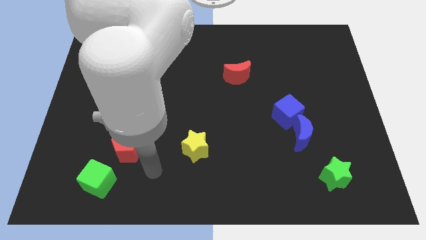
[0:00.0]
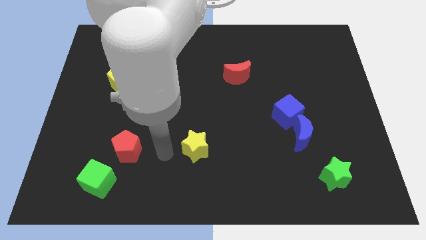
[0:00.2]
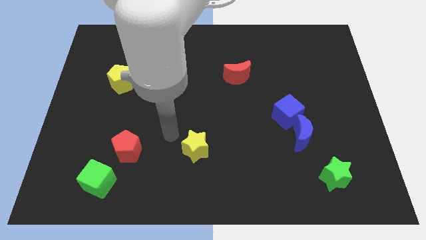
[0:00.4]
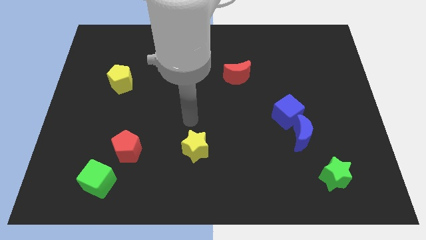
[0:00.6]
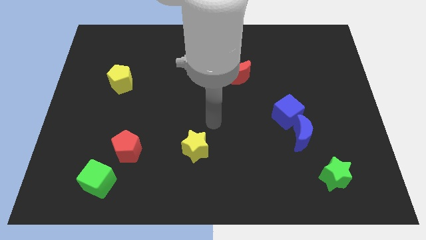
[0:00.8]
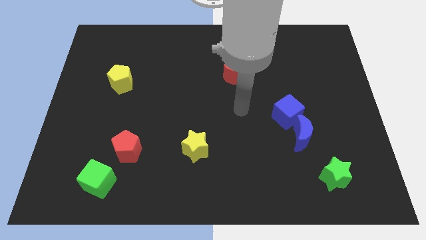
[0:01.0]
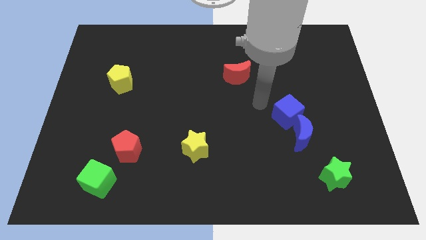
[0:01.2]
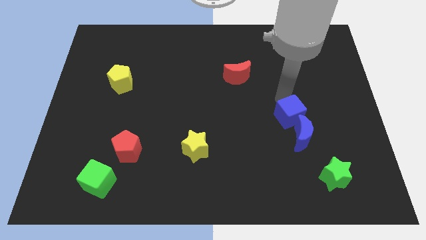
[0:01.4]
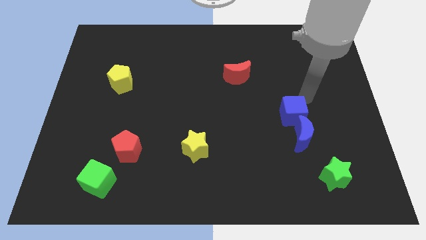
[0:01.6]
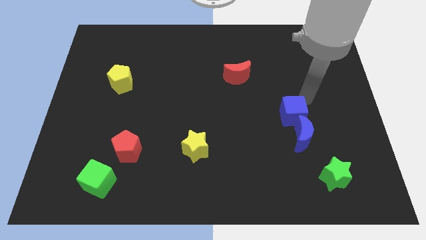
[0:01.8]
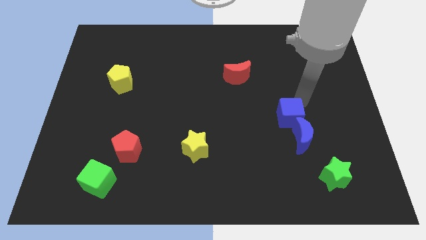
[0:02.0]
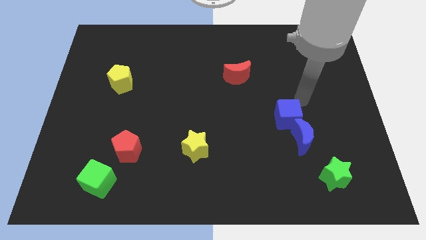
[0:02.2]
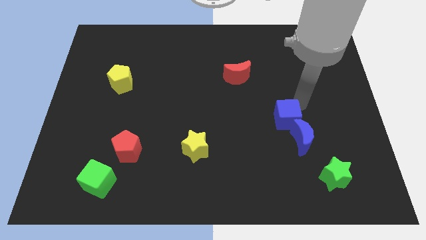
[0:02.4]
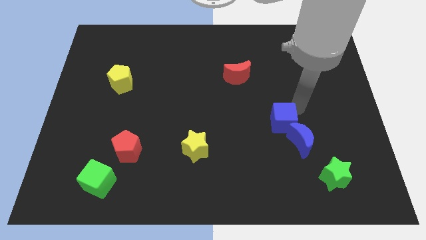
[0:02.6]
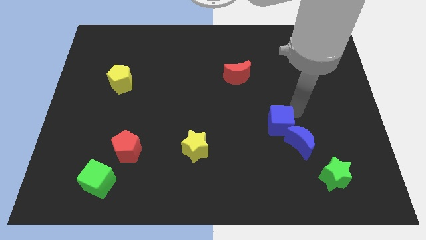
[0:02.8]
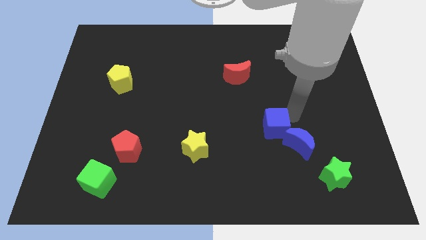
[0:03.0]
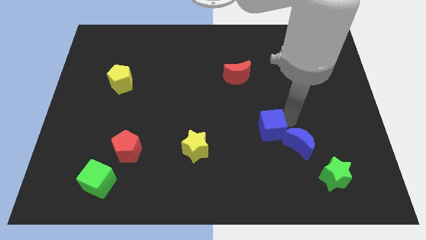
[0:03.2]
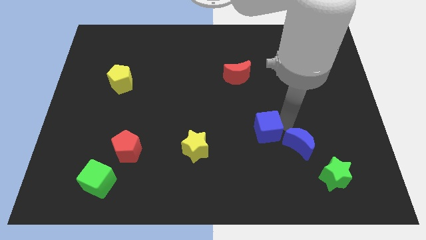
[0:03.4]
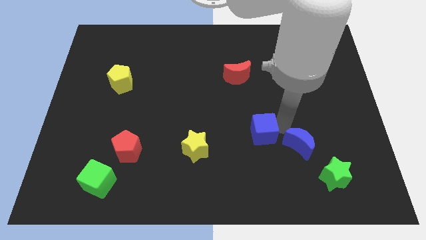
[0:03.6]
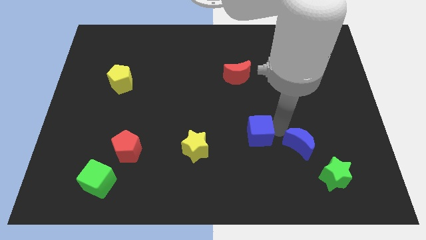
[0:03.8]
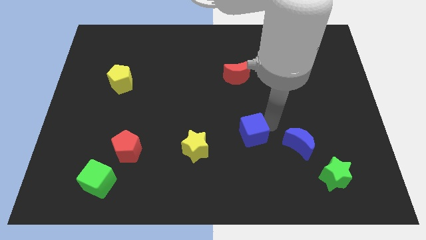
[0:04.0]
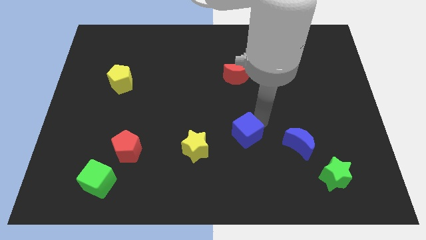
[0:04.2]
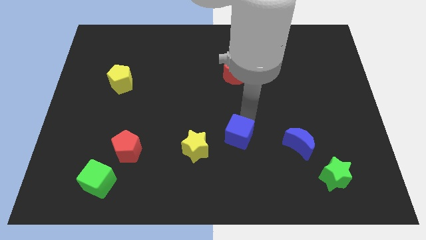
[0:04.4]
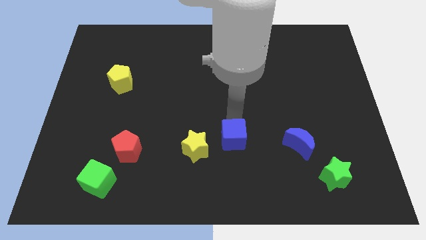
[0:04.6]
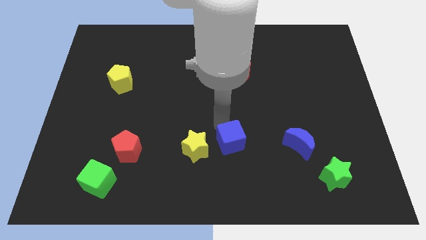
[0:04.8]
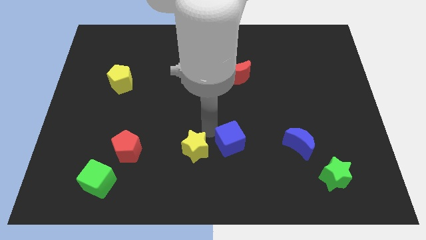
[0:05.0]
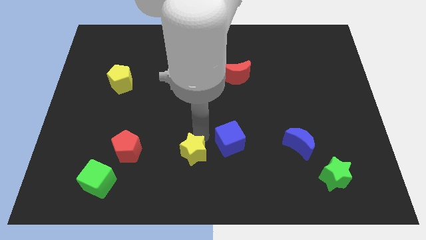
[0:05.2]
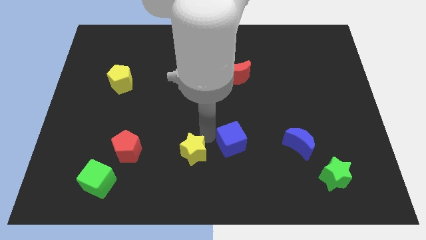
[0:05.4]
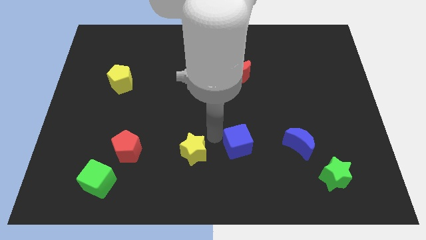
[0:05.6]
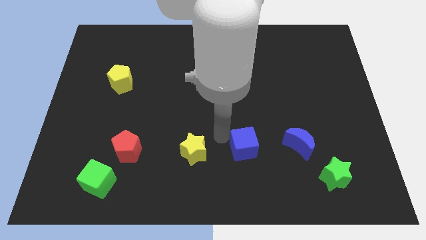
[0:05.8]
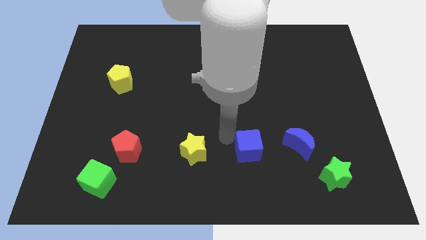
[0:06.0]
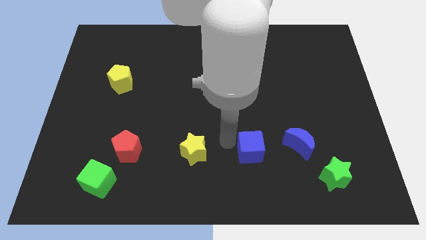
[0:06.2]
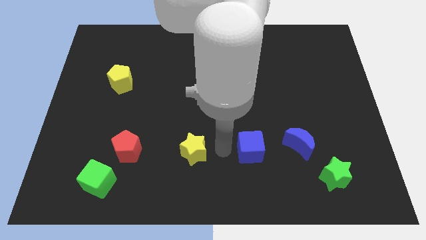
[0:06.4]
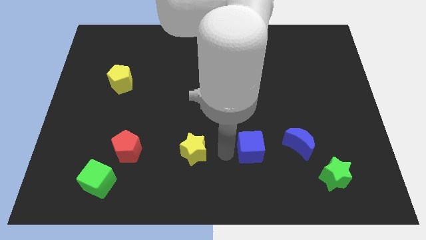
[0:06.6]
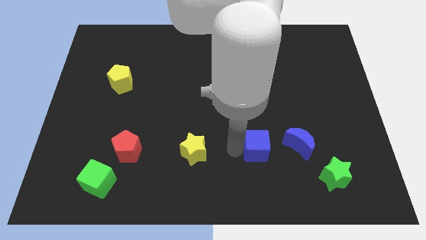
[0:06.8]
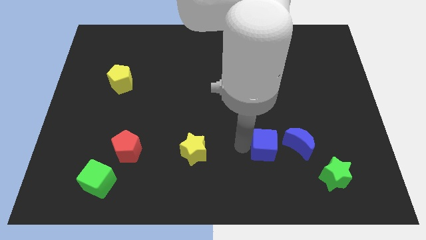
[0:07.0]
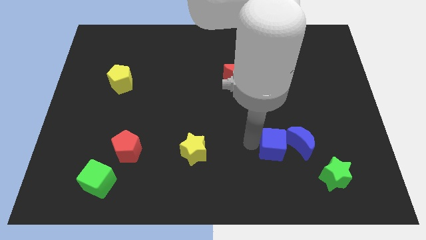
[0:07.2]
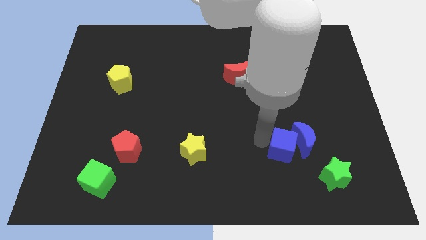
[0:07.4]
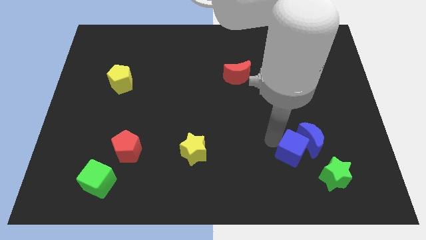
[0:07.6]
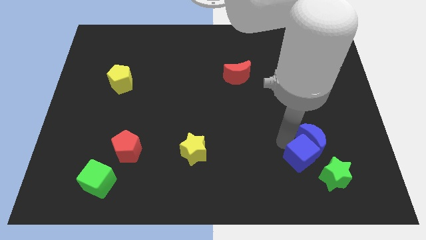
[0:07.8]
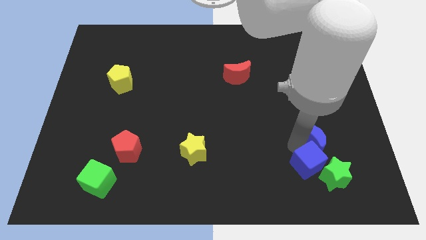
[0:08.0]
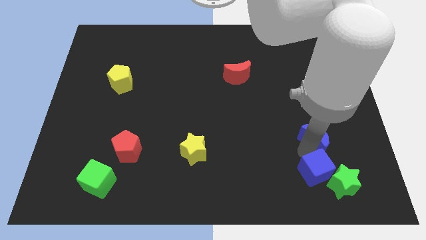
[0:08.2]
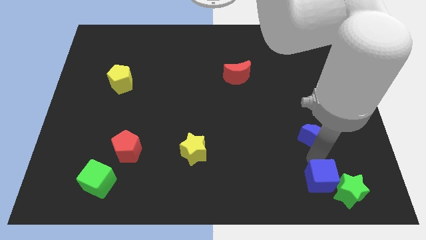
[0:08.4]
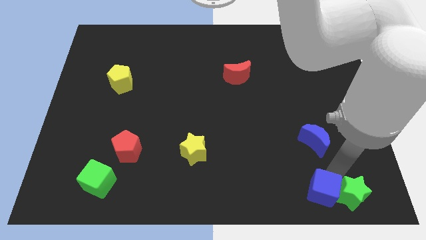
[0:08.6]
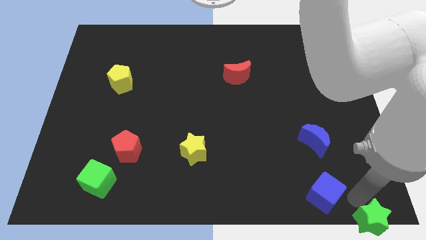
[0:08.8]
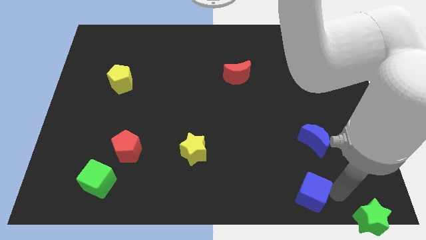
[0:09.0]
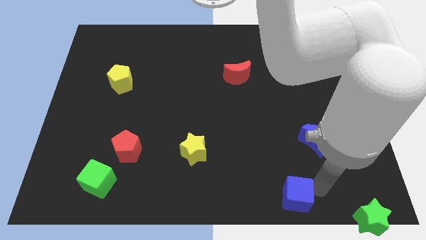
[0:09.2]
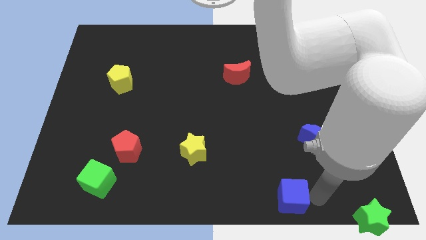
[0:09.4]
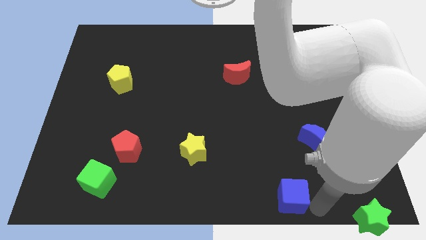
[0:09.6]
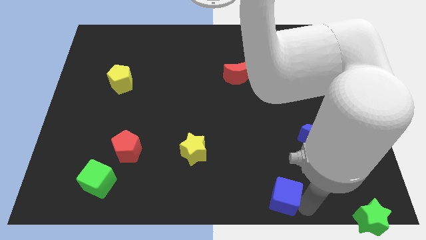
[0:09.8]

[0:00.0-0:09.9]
put the blue cube to the bottom side

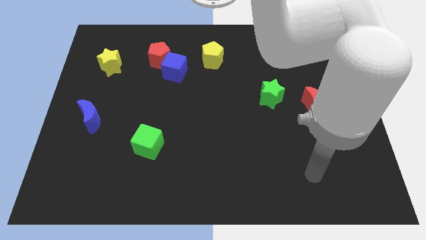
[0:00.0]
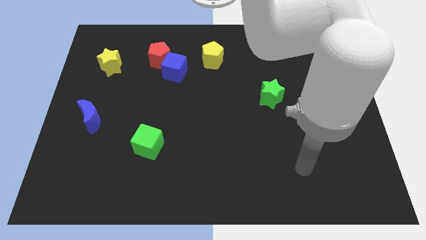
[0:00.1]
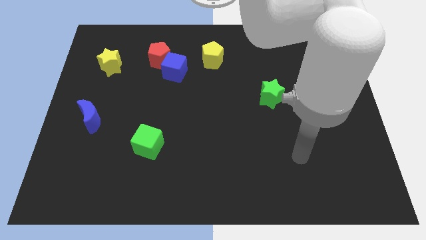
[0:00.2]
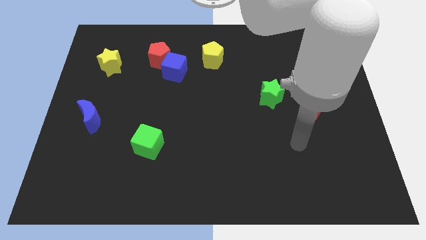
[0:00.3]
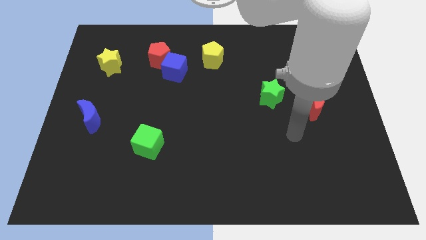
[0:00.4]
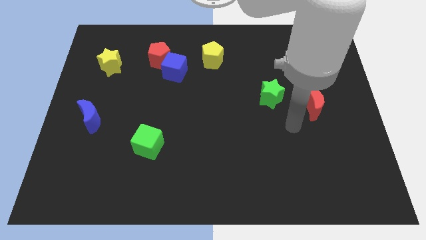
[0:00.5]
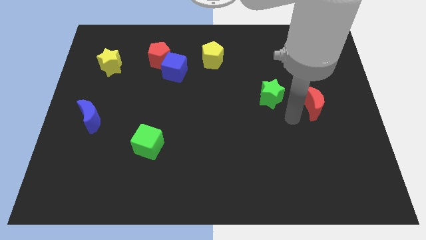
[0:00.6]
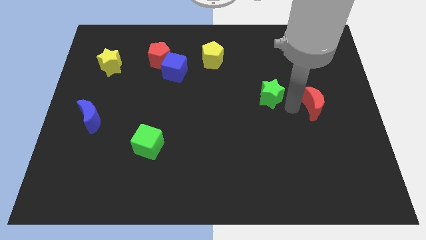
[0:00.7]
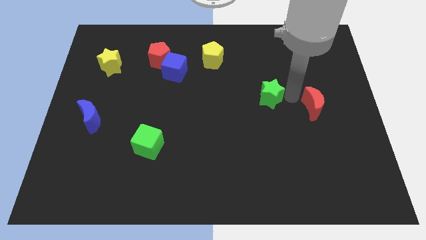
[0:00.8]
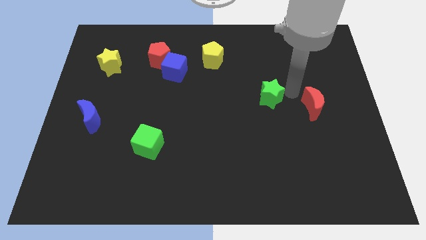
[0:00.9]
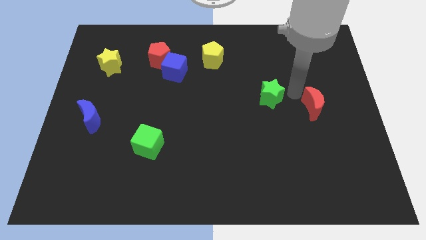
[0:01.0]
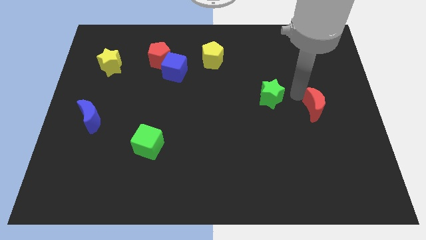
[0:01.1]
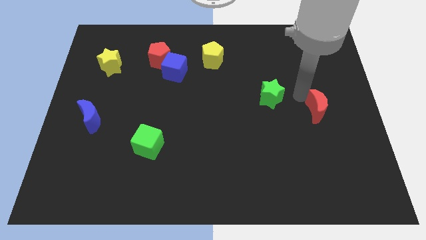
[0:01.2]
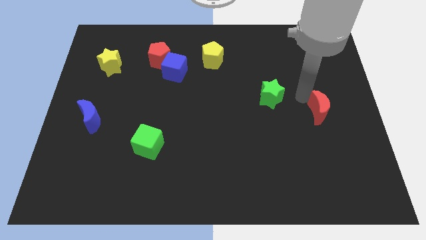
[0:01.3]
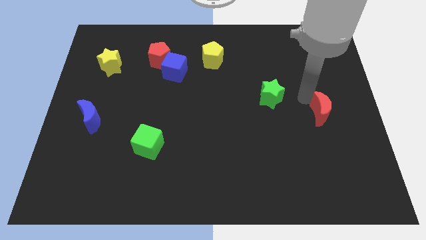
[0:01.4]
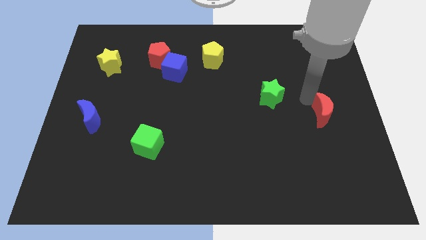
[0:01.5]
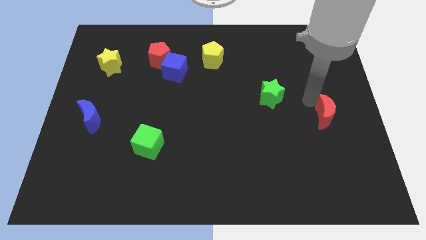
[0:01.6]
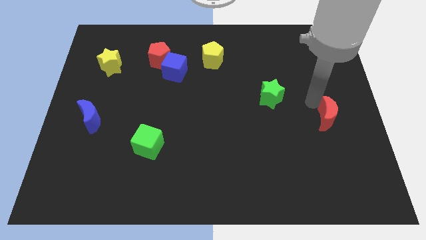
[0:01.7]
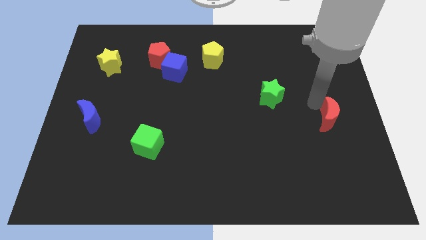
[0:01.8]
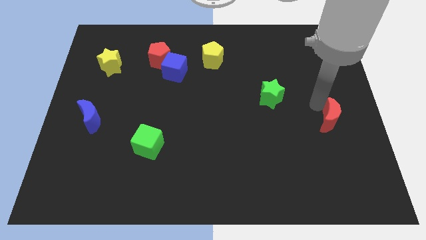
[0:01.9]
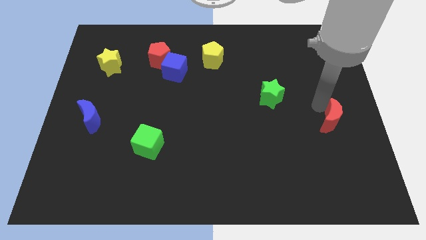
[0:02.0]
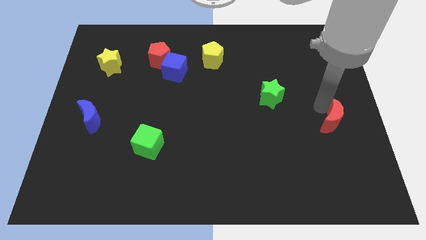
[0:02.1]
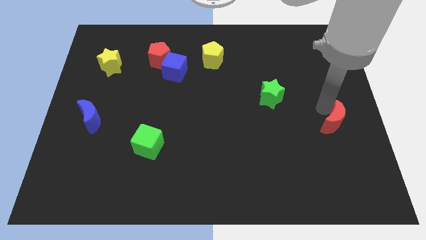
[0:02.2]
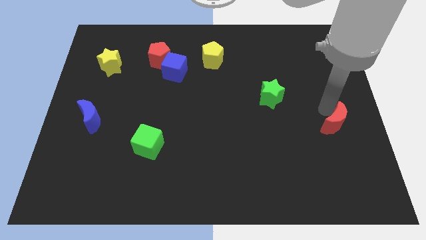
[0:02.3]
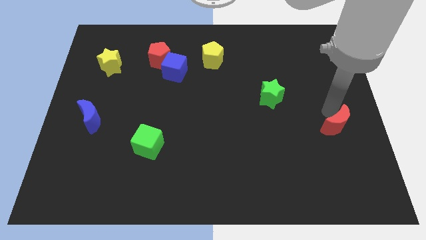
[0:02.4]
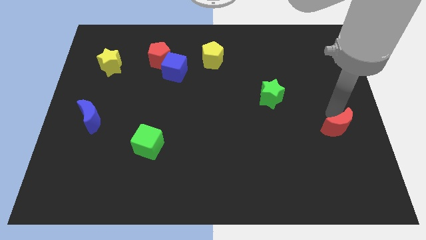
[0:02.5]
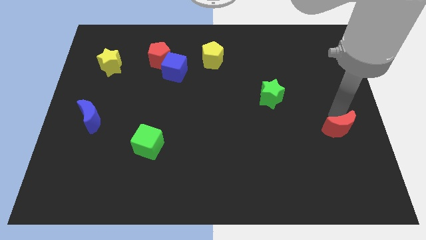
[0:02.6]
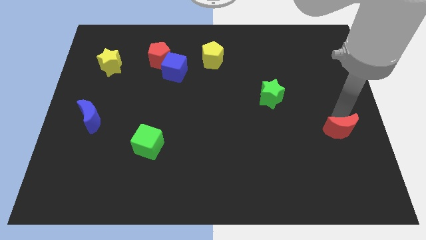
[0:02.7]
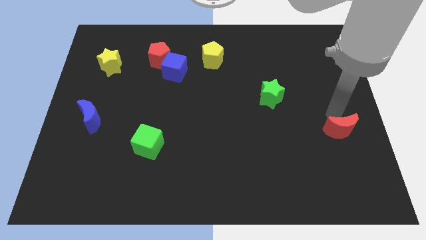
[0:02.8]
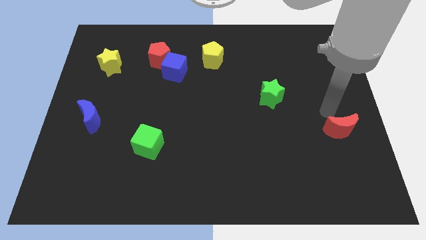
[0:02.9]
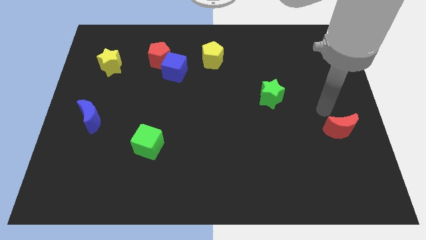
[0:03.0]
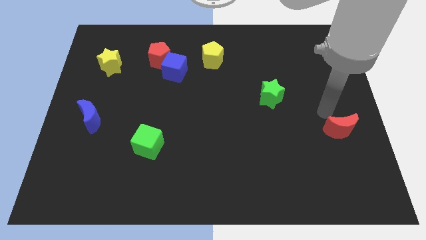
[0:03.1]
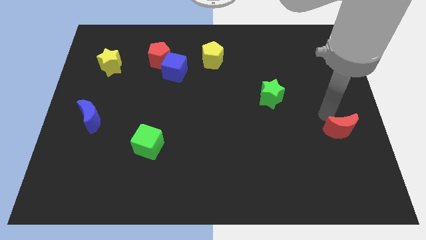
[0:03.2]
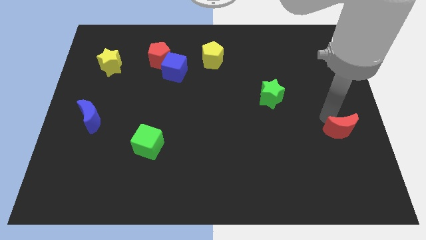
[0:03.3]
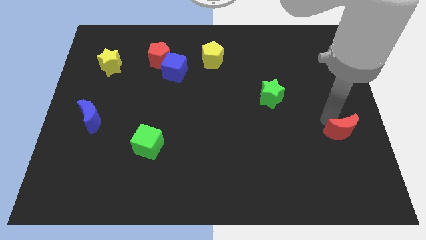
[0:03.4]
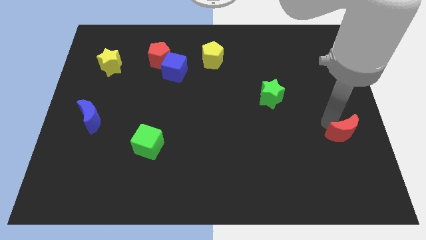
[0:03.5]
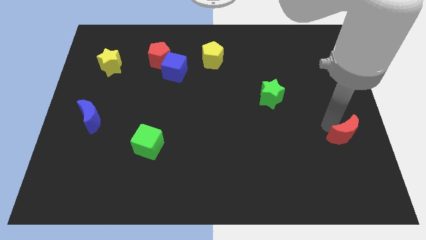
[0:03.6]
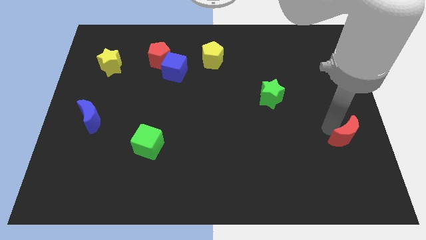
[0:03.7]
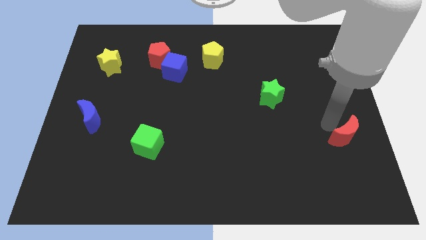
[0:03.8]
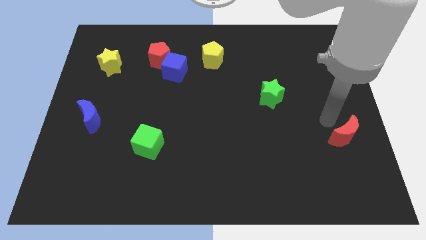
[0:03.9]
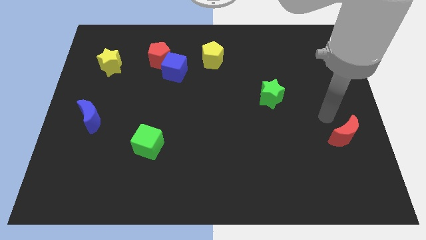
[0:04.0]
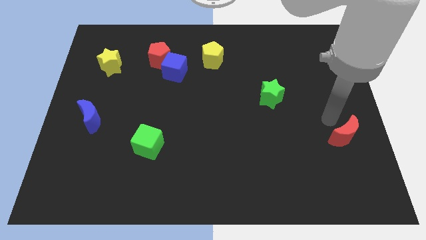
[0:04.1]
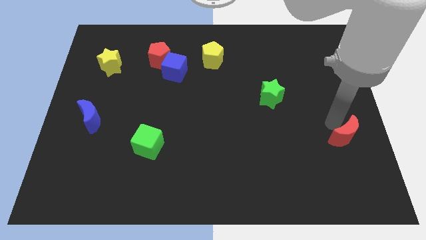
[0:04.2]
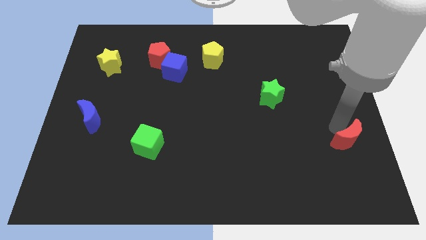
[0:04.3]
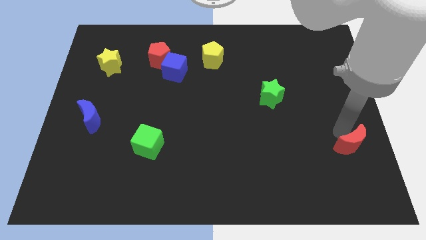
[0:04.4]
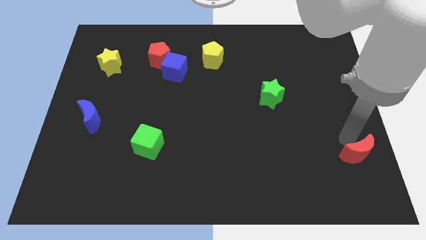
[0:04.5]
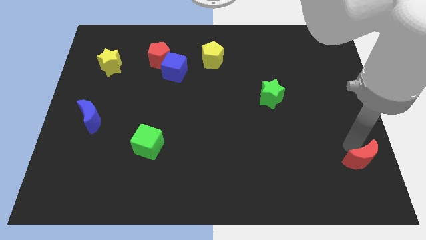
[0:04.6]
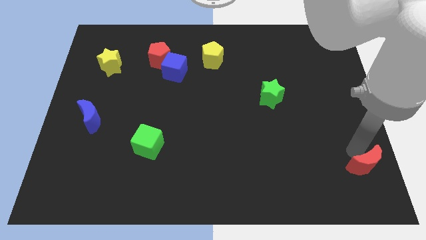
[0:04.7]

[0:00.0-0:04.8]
slide the red moon to the bottom right corner
